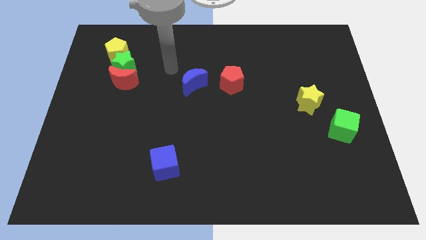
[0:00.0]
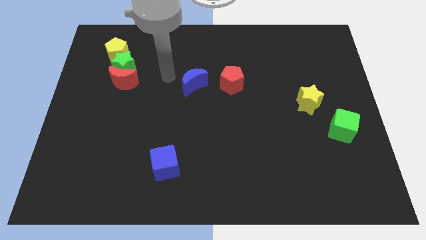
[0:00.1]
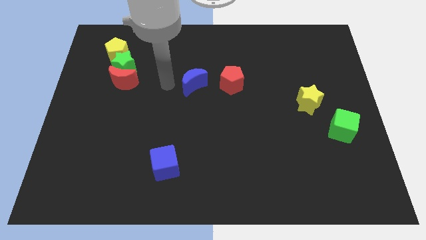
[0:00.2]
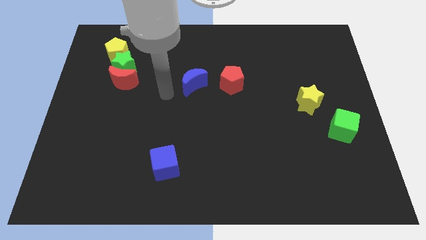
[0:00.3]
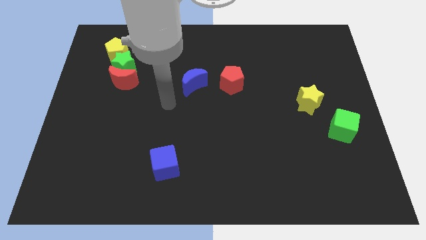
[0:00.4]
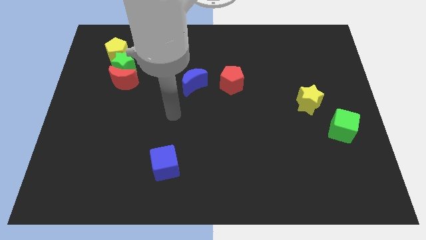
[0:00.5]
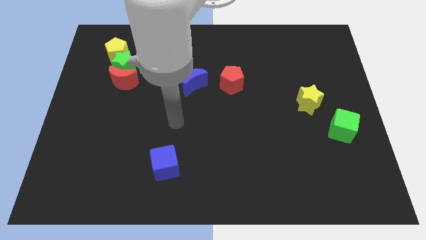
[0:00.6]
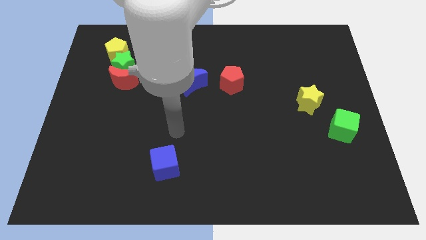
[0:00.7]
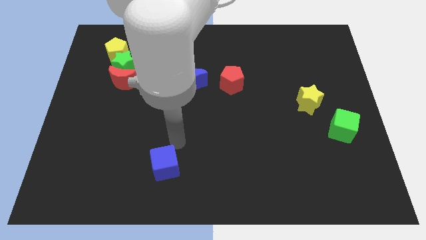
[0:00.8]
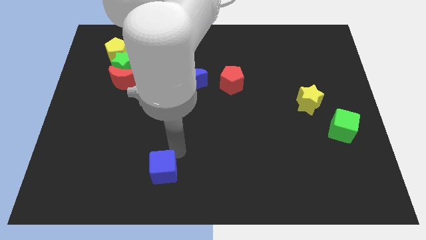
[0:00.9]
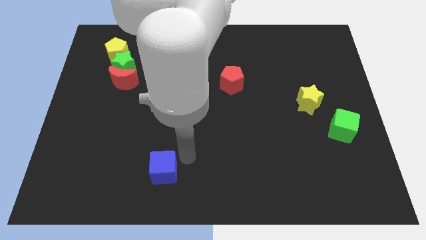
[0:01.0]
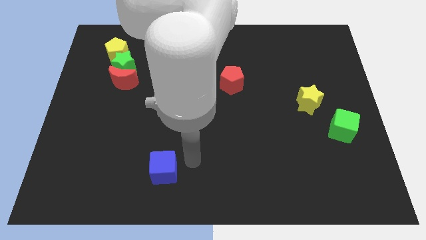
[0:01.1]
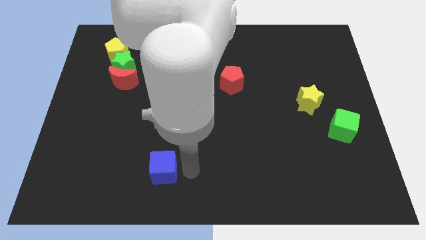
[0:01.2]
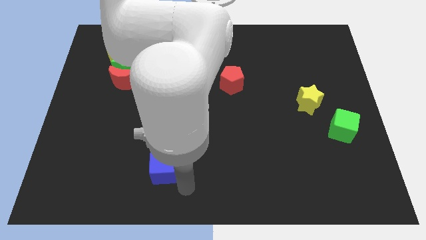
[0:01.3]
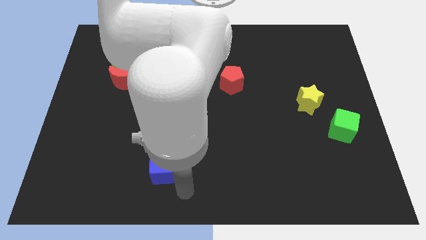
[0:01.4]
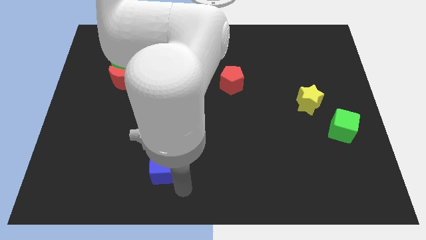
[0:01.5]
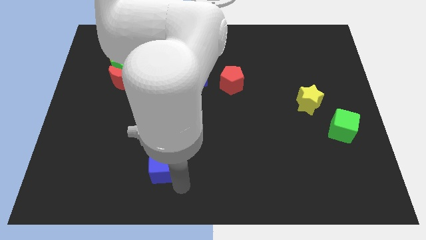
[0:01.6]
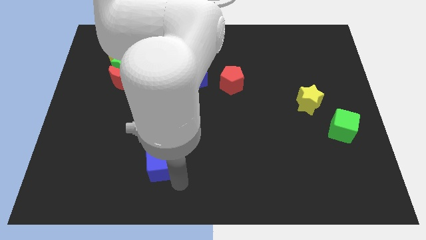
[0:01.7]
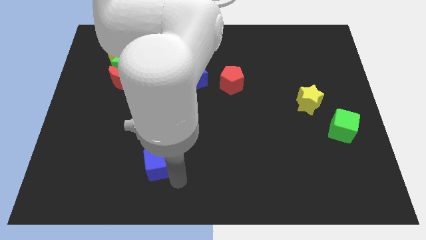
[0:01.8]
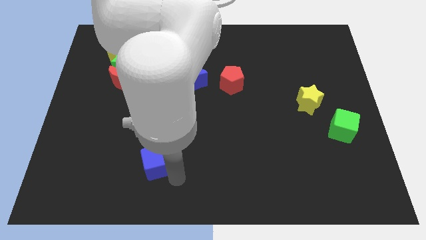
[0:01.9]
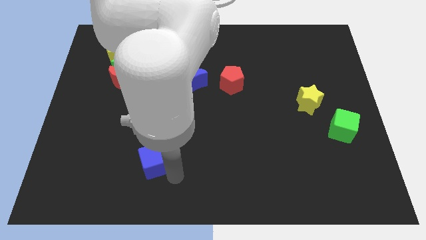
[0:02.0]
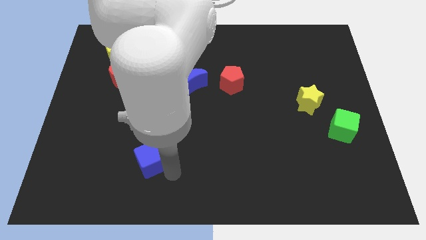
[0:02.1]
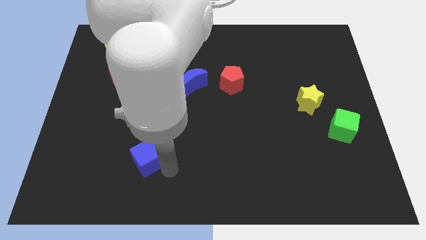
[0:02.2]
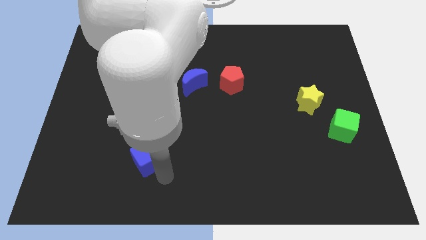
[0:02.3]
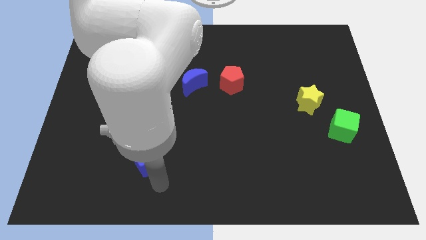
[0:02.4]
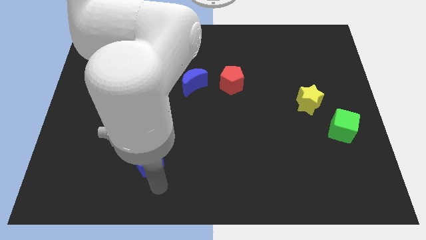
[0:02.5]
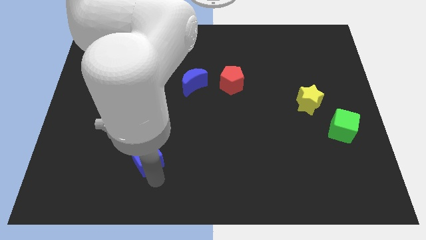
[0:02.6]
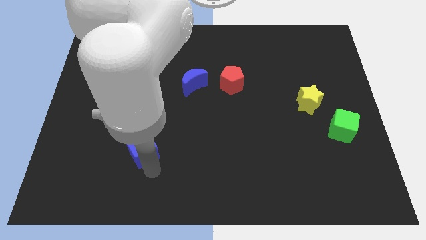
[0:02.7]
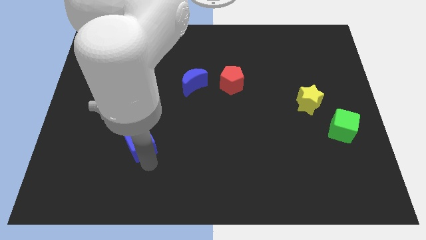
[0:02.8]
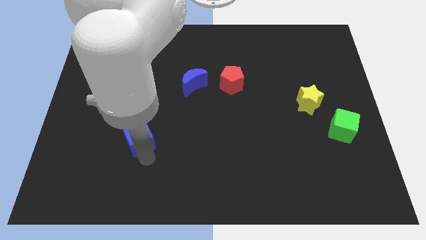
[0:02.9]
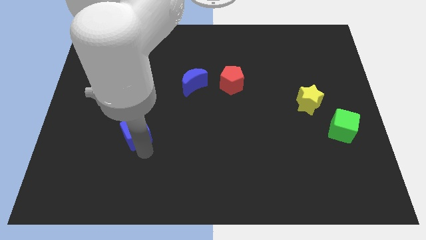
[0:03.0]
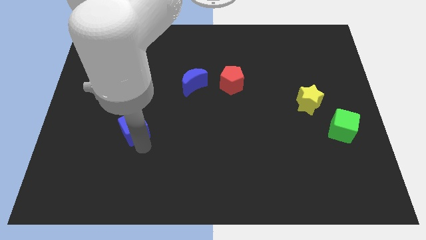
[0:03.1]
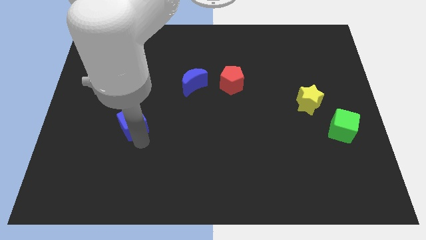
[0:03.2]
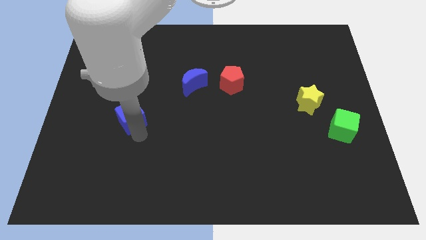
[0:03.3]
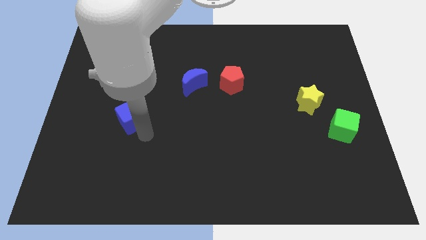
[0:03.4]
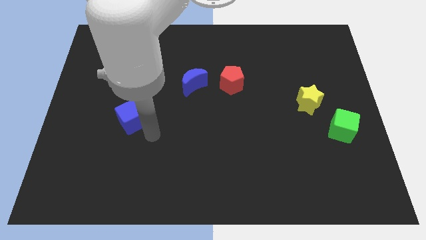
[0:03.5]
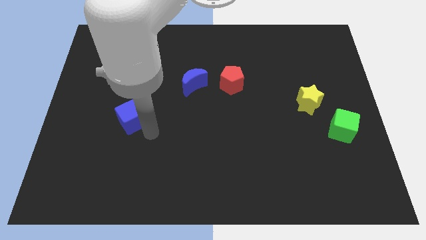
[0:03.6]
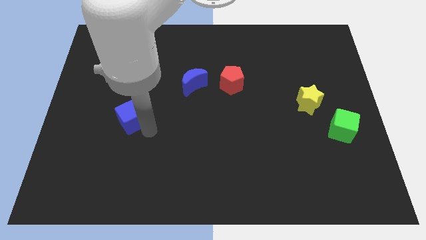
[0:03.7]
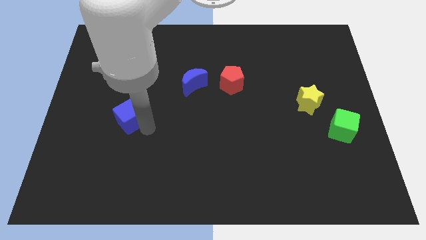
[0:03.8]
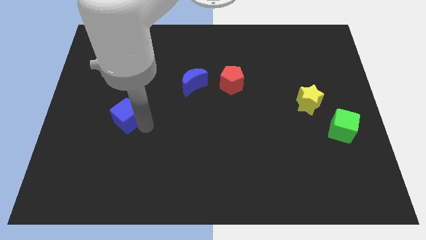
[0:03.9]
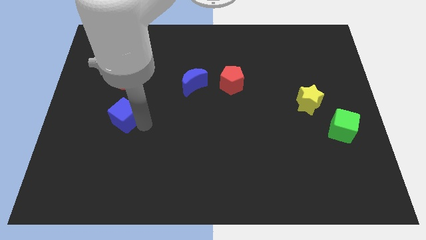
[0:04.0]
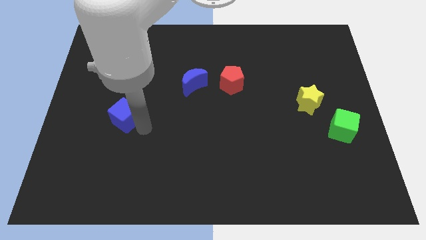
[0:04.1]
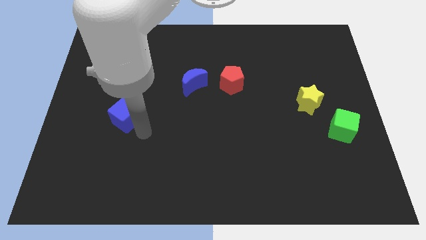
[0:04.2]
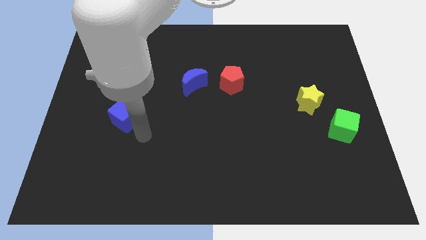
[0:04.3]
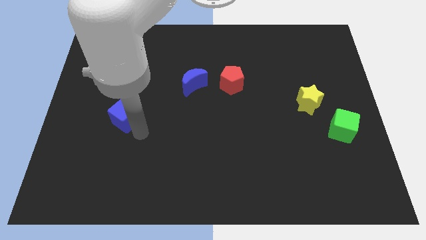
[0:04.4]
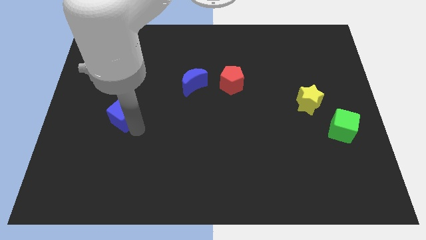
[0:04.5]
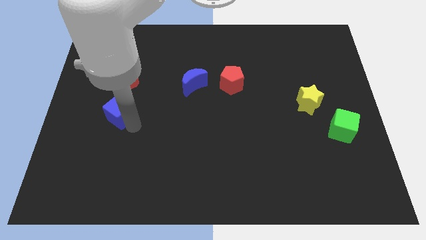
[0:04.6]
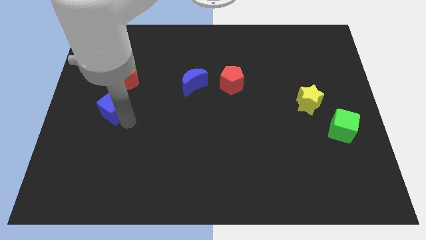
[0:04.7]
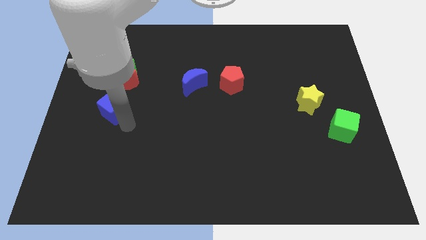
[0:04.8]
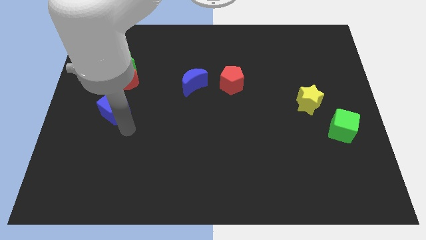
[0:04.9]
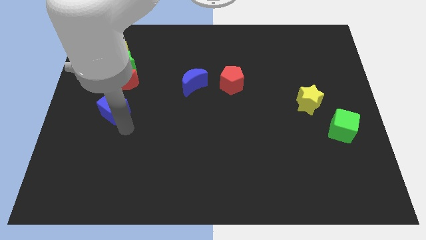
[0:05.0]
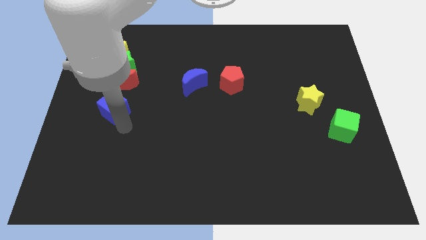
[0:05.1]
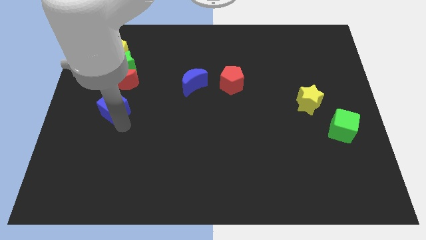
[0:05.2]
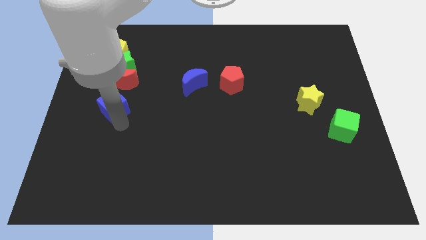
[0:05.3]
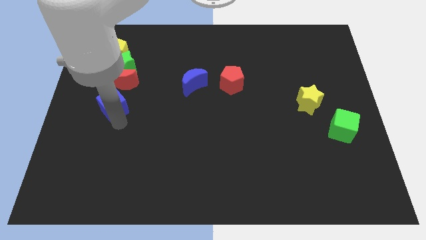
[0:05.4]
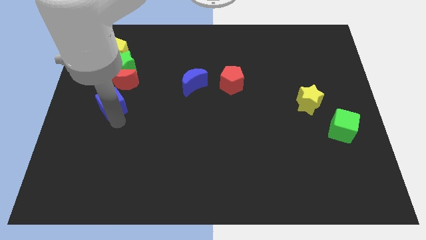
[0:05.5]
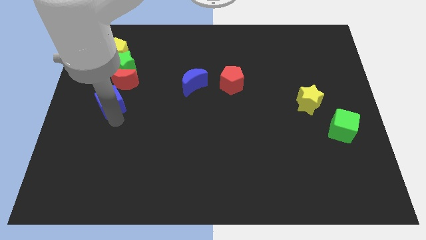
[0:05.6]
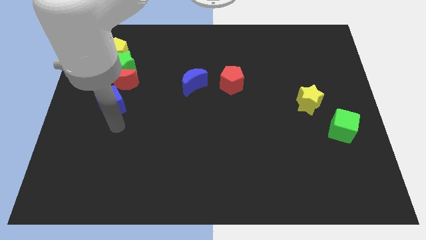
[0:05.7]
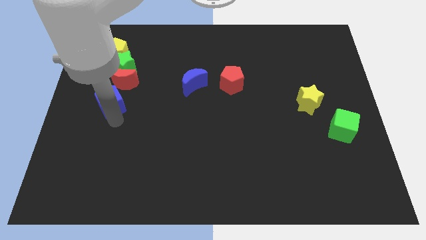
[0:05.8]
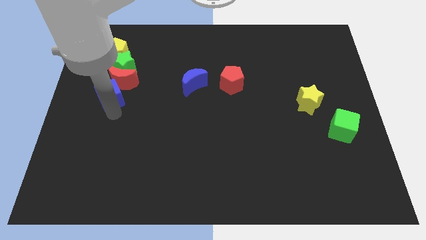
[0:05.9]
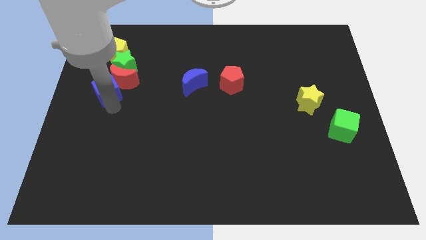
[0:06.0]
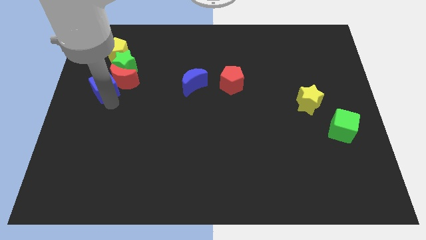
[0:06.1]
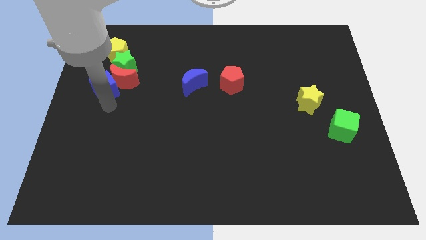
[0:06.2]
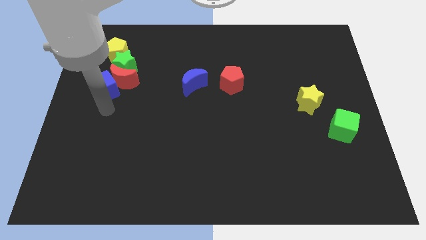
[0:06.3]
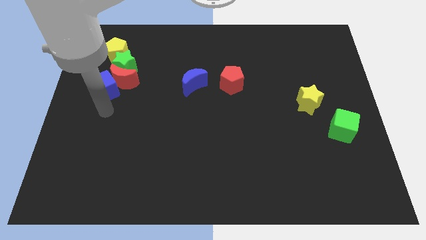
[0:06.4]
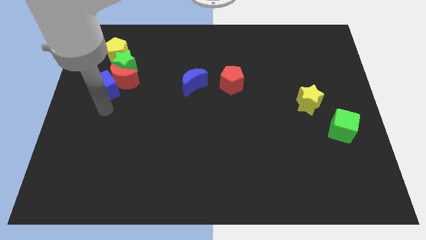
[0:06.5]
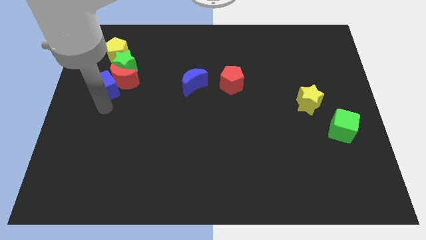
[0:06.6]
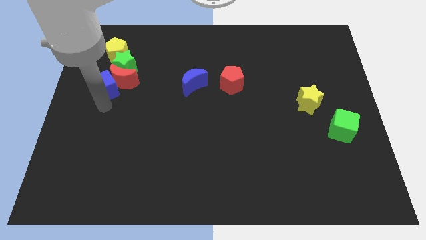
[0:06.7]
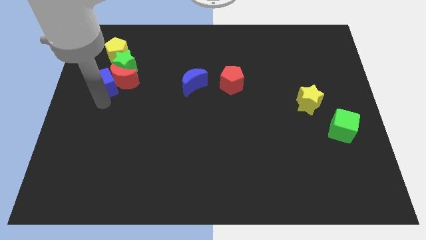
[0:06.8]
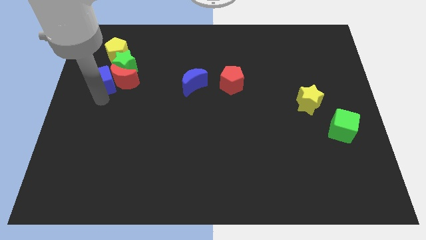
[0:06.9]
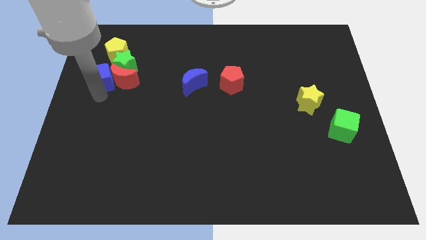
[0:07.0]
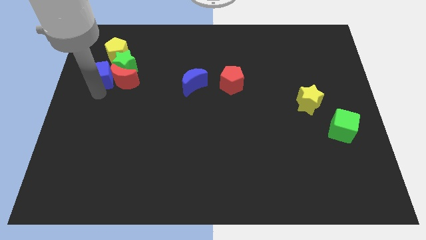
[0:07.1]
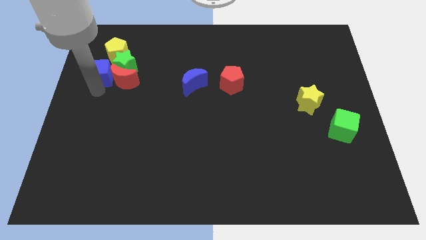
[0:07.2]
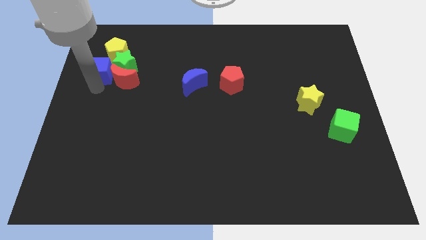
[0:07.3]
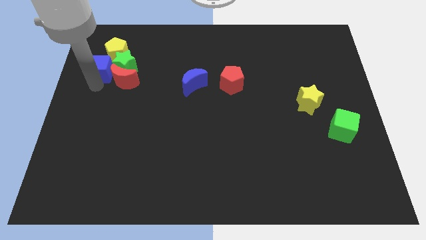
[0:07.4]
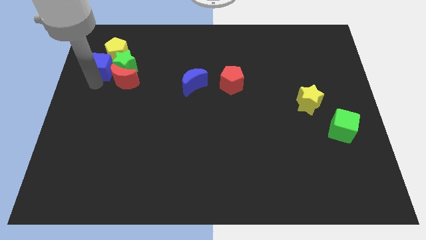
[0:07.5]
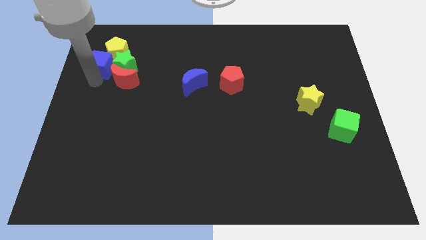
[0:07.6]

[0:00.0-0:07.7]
move the blue cube close to the yellow pentagon
